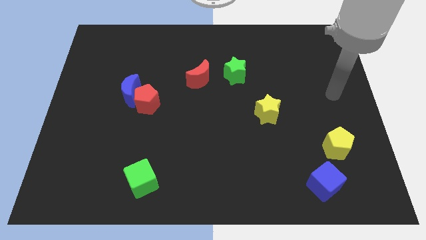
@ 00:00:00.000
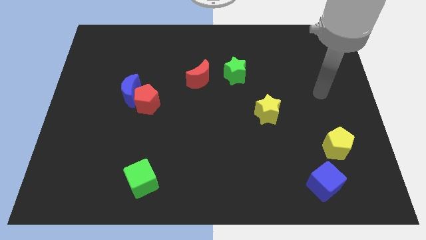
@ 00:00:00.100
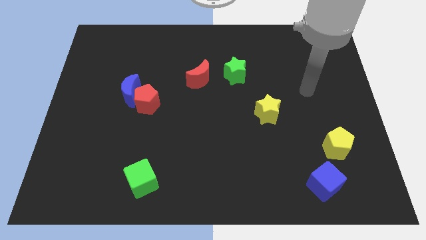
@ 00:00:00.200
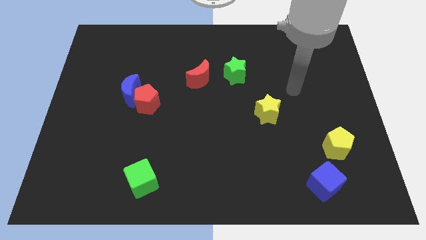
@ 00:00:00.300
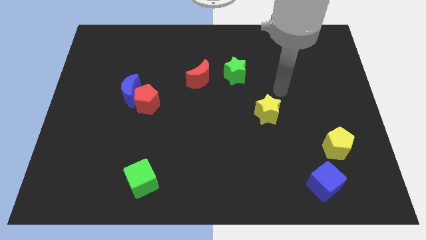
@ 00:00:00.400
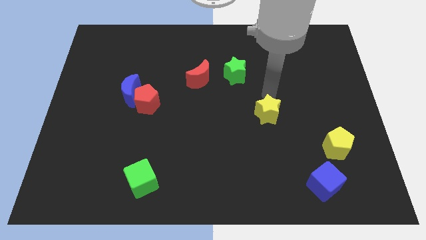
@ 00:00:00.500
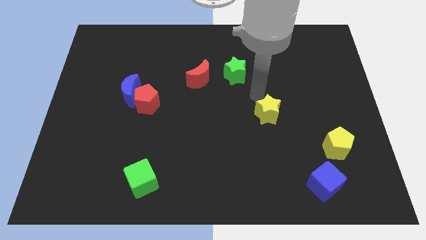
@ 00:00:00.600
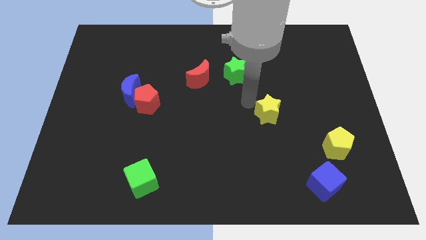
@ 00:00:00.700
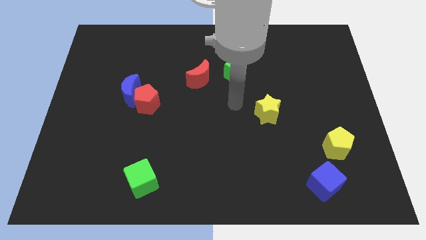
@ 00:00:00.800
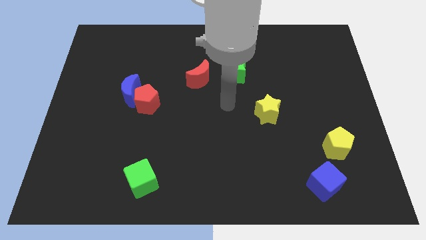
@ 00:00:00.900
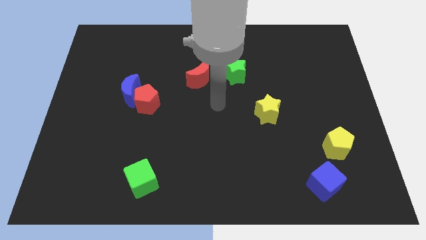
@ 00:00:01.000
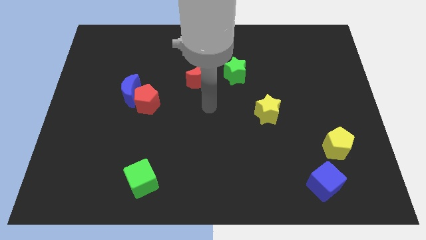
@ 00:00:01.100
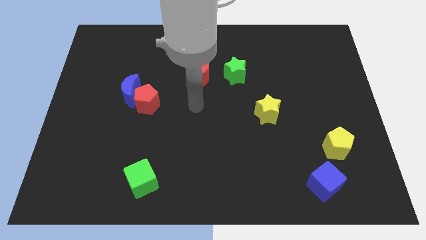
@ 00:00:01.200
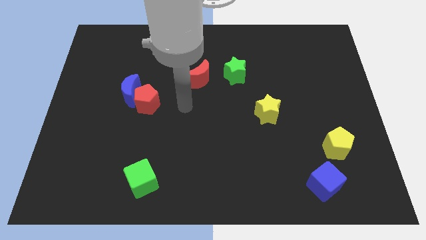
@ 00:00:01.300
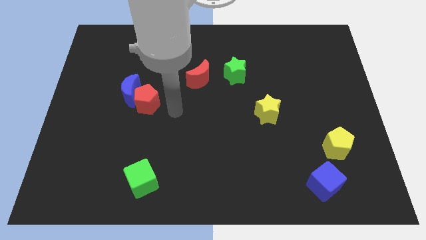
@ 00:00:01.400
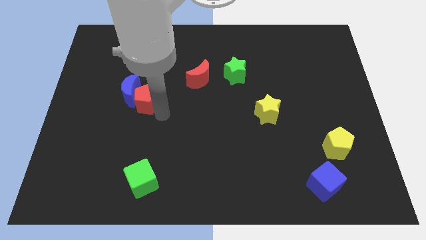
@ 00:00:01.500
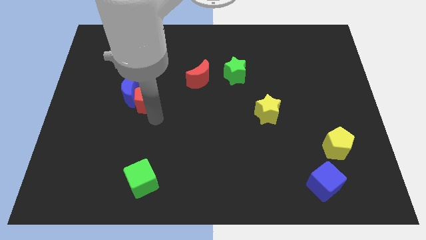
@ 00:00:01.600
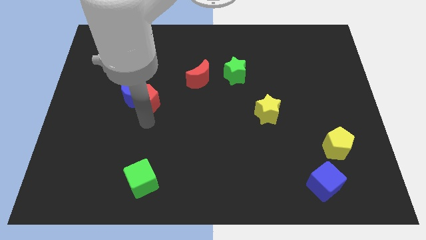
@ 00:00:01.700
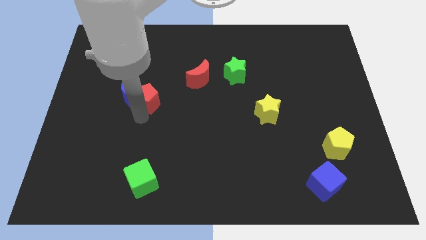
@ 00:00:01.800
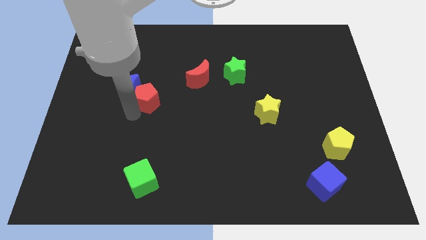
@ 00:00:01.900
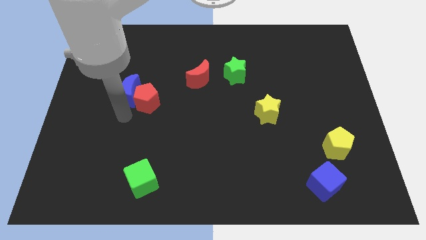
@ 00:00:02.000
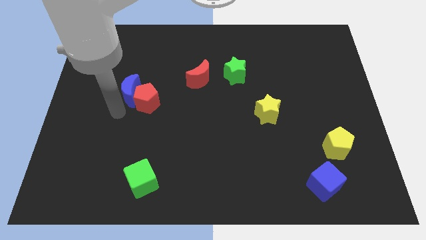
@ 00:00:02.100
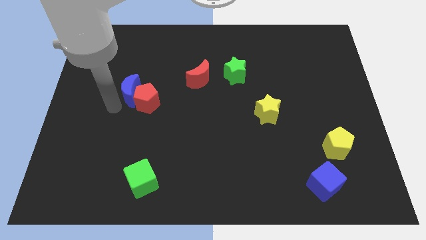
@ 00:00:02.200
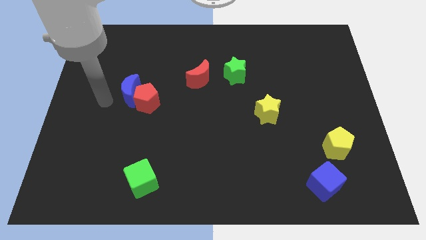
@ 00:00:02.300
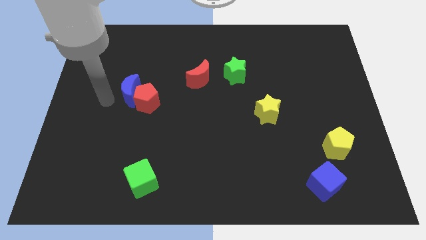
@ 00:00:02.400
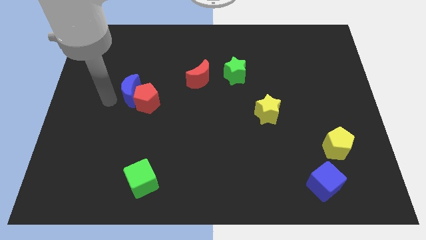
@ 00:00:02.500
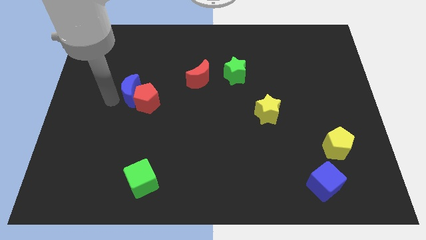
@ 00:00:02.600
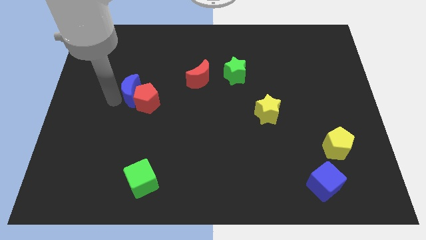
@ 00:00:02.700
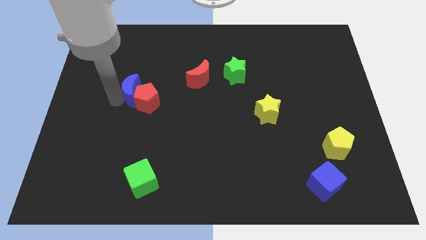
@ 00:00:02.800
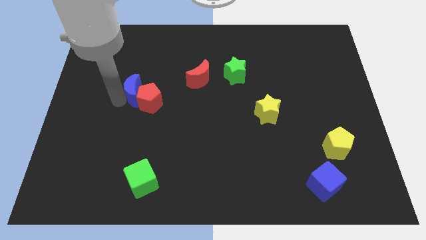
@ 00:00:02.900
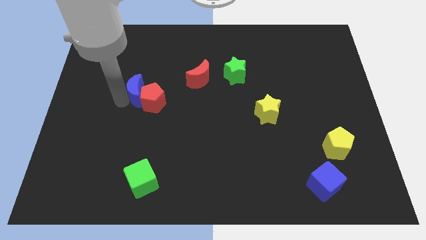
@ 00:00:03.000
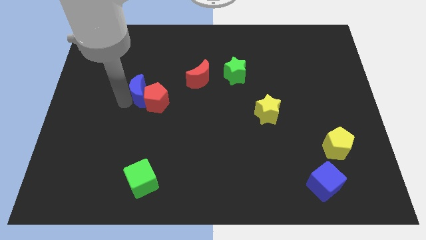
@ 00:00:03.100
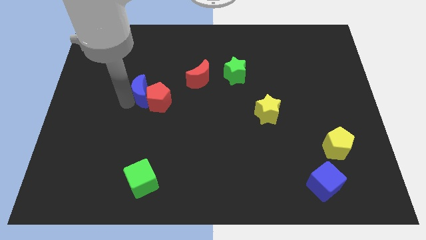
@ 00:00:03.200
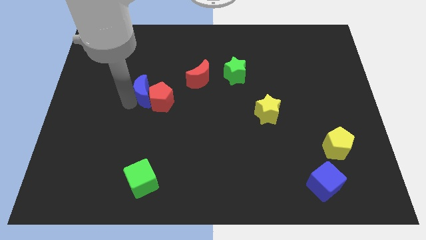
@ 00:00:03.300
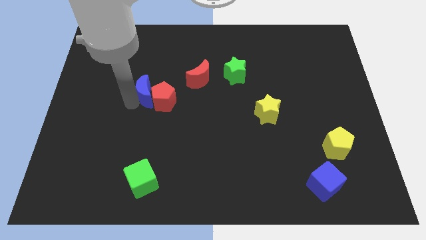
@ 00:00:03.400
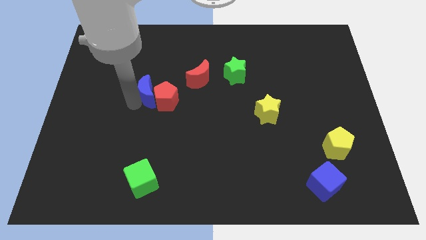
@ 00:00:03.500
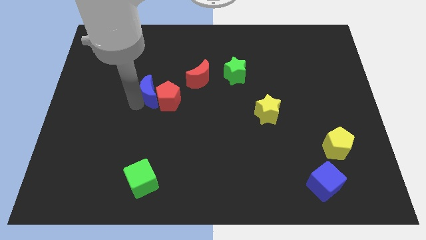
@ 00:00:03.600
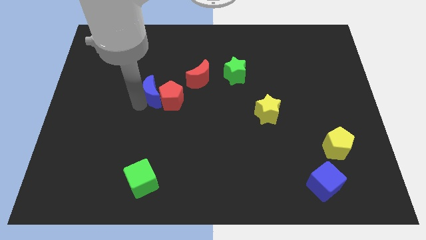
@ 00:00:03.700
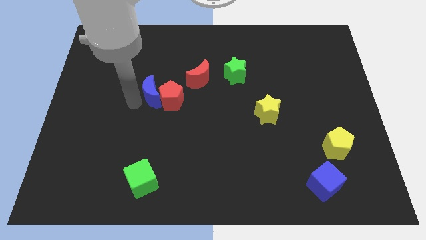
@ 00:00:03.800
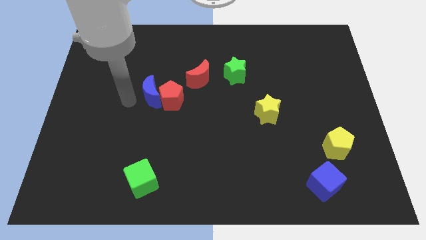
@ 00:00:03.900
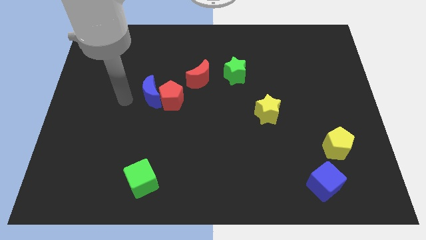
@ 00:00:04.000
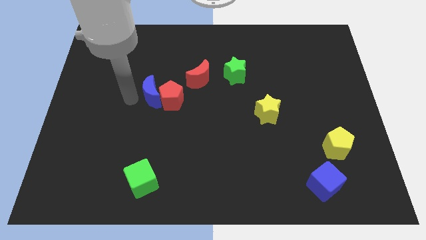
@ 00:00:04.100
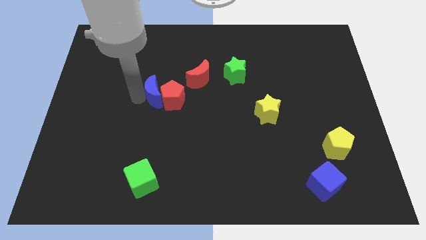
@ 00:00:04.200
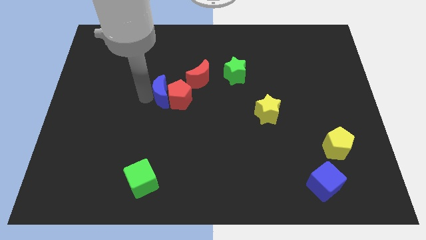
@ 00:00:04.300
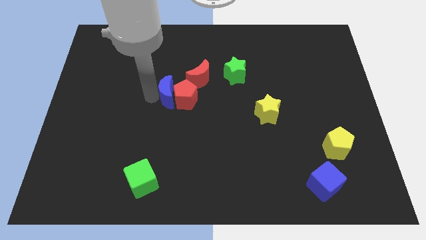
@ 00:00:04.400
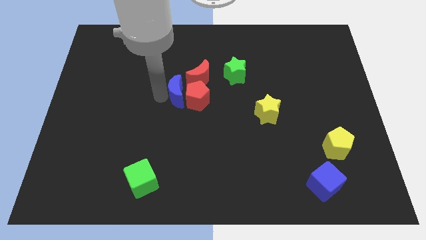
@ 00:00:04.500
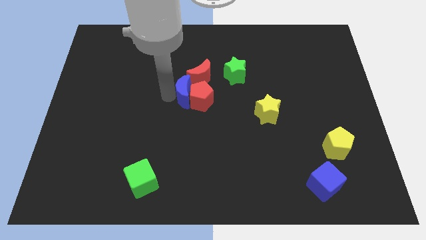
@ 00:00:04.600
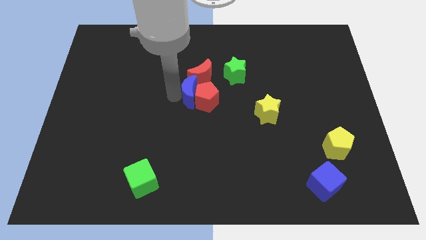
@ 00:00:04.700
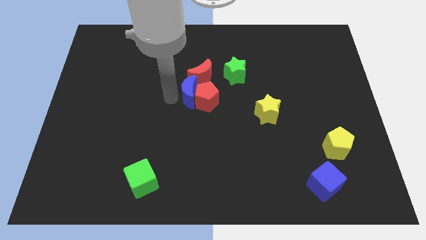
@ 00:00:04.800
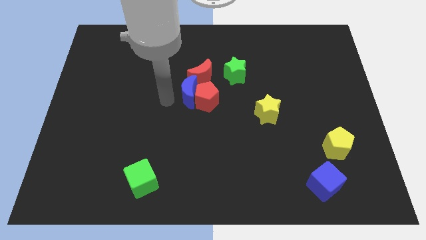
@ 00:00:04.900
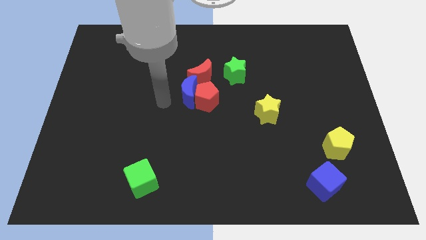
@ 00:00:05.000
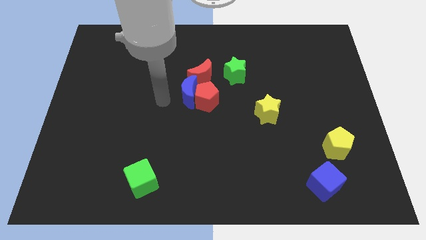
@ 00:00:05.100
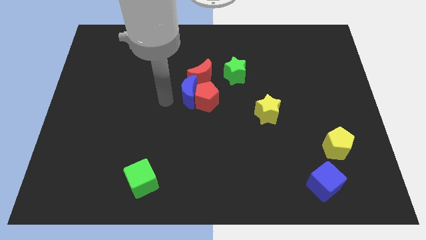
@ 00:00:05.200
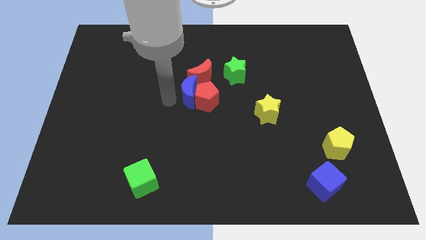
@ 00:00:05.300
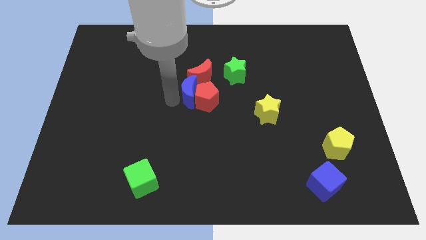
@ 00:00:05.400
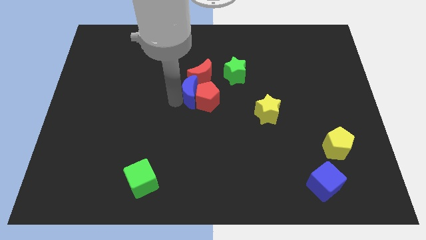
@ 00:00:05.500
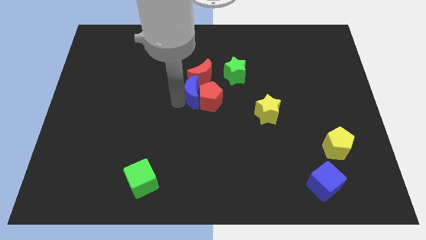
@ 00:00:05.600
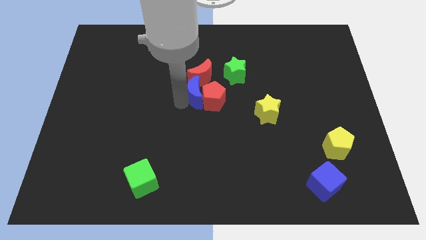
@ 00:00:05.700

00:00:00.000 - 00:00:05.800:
put the blue moon diagonally down and to the left of the green star

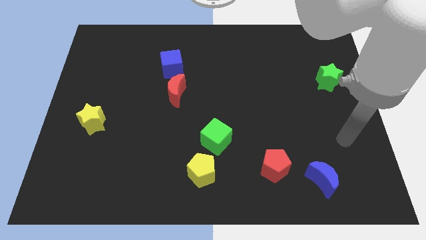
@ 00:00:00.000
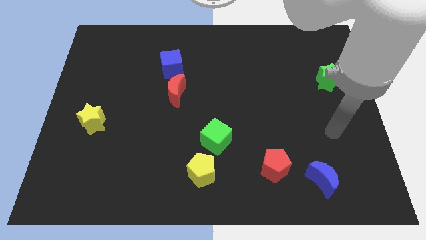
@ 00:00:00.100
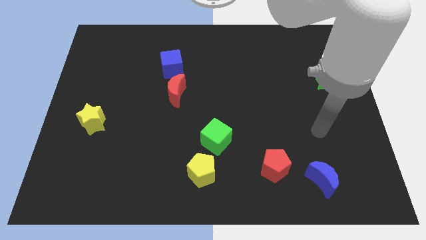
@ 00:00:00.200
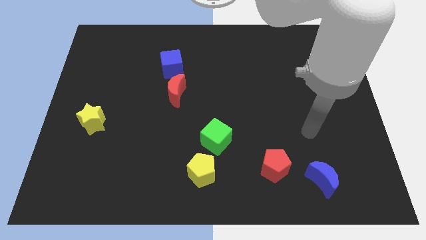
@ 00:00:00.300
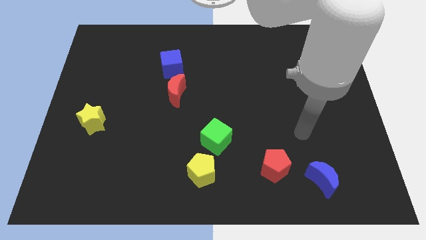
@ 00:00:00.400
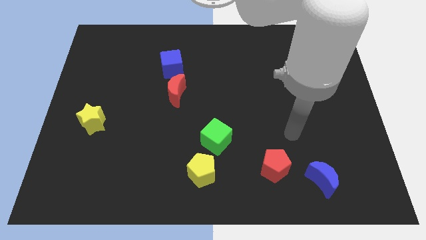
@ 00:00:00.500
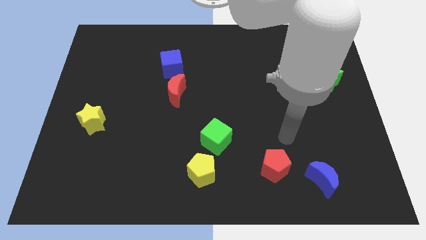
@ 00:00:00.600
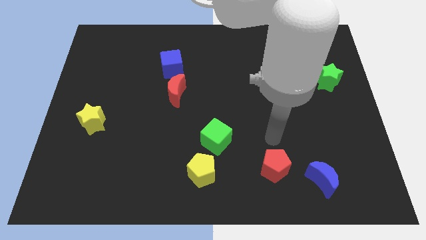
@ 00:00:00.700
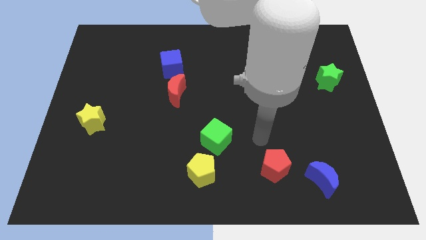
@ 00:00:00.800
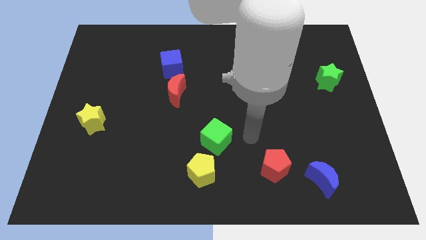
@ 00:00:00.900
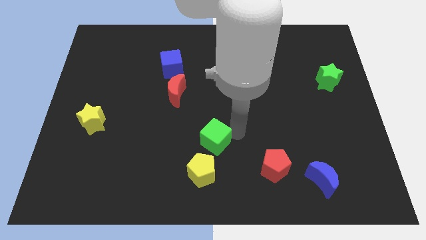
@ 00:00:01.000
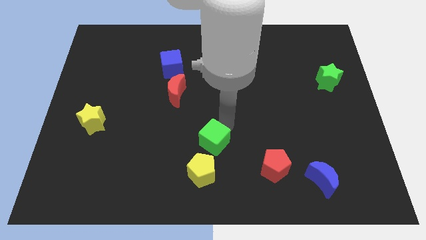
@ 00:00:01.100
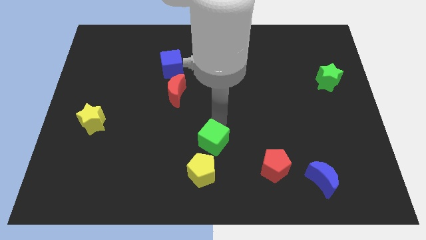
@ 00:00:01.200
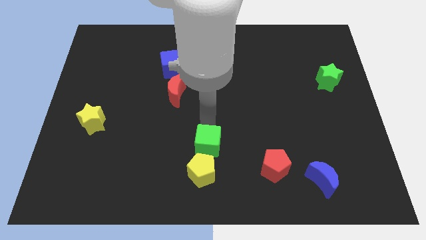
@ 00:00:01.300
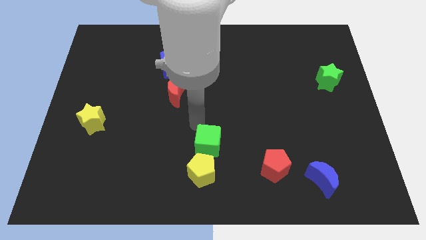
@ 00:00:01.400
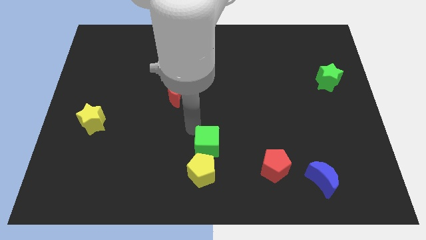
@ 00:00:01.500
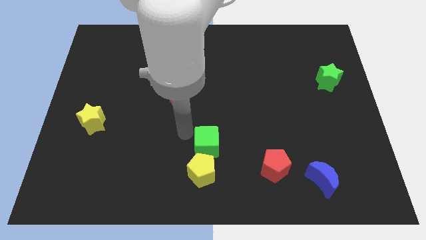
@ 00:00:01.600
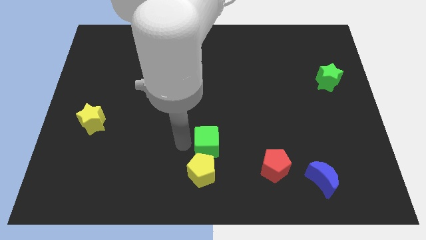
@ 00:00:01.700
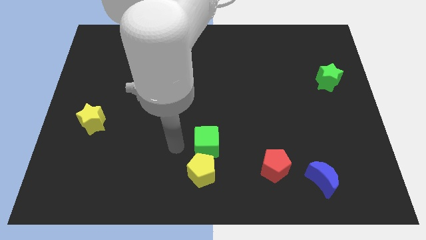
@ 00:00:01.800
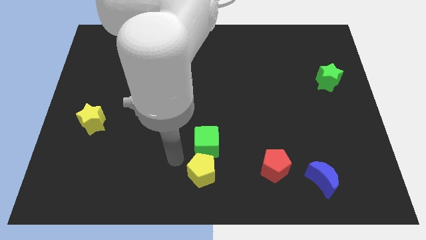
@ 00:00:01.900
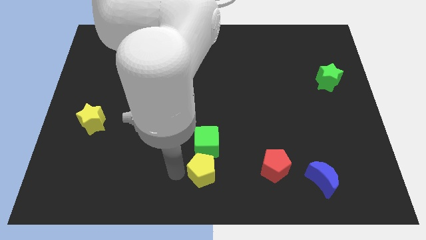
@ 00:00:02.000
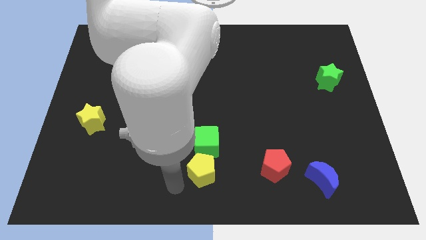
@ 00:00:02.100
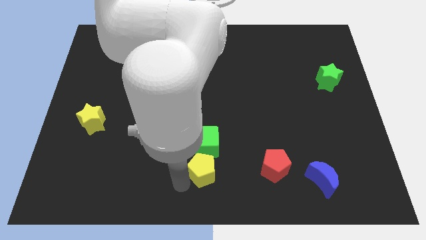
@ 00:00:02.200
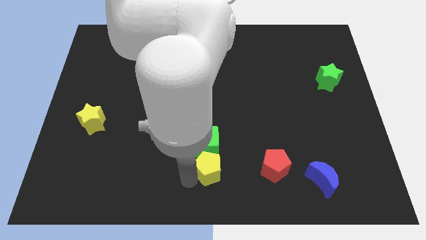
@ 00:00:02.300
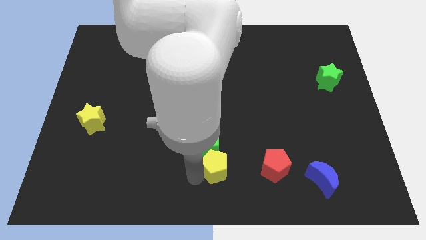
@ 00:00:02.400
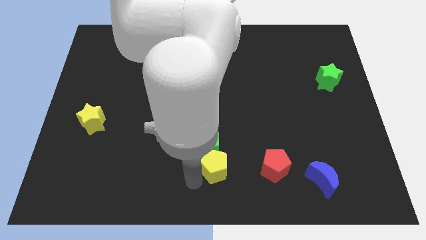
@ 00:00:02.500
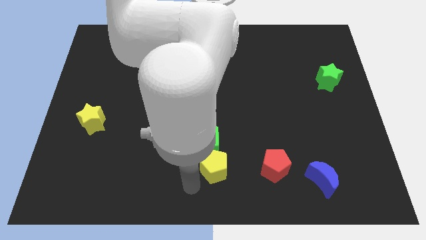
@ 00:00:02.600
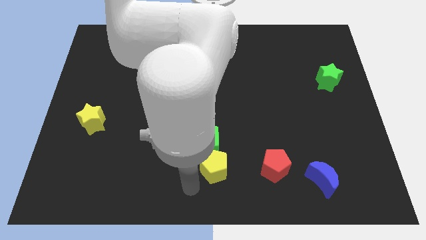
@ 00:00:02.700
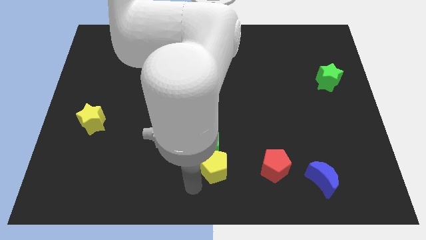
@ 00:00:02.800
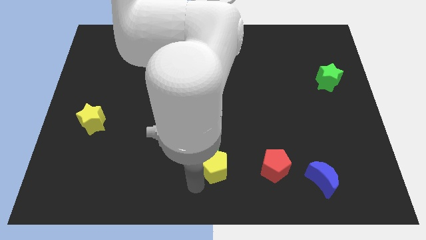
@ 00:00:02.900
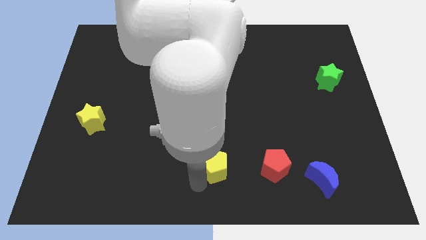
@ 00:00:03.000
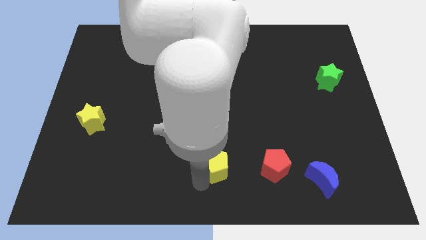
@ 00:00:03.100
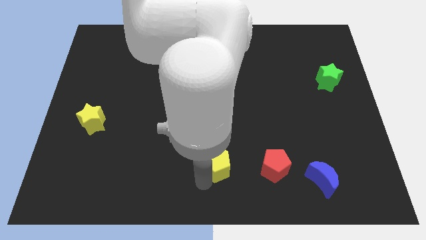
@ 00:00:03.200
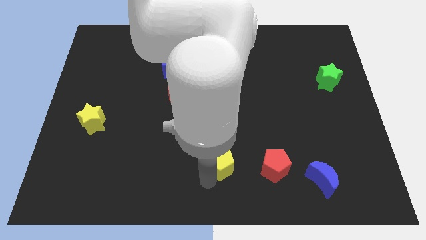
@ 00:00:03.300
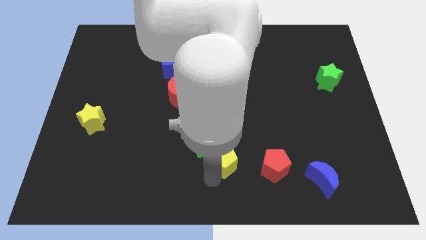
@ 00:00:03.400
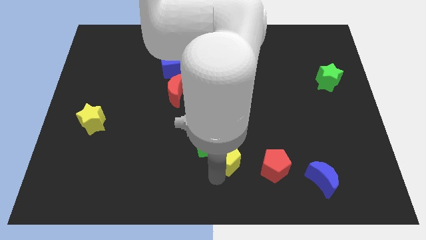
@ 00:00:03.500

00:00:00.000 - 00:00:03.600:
put the yellow pentagon right of the green cube
